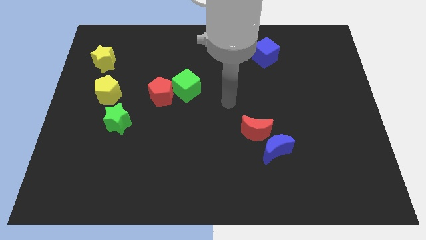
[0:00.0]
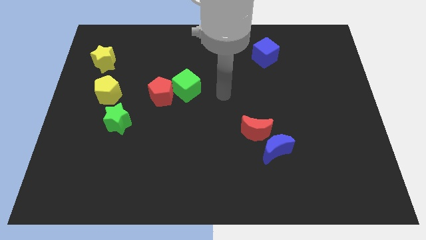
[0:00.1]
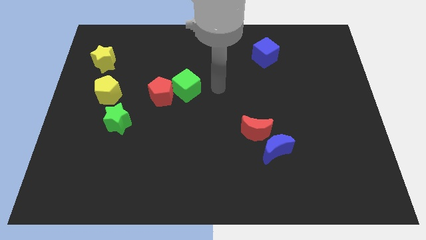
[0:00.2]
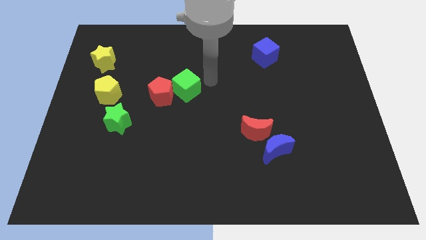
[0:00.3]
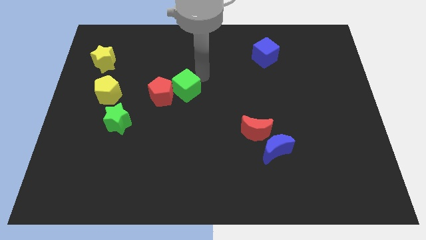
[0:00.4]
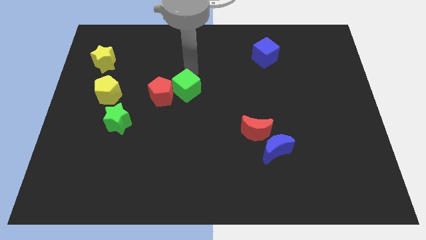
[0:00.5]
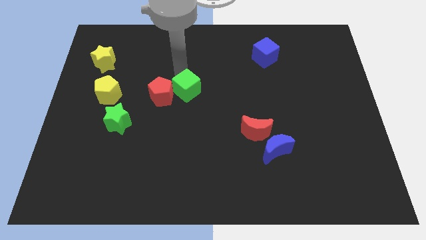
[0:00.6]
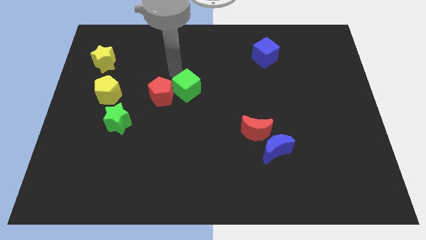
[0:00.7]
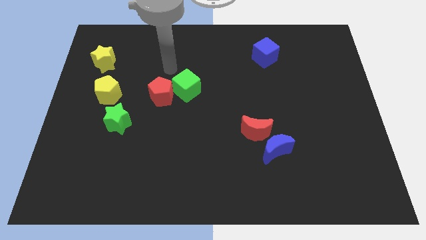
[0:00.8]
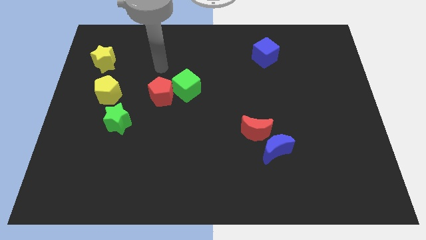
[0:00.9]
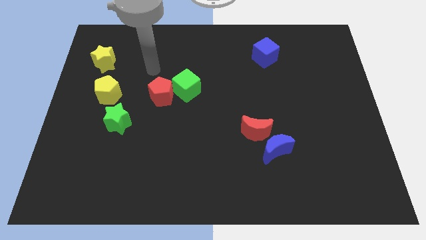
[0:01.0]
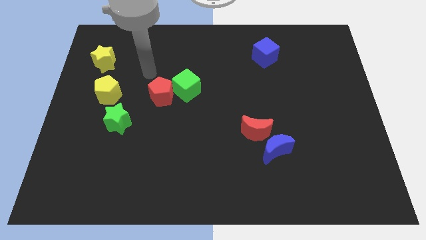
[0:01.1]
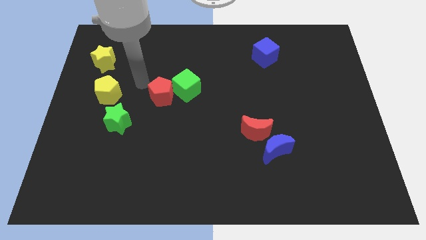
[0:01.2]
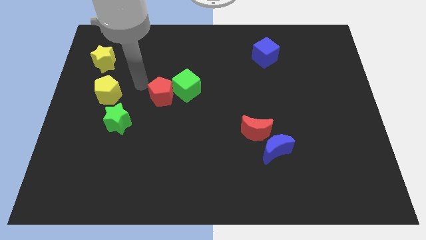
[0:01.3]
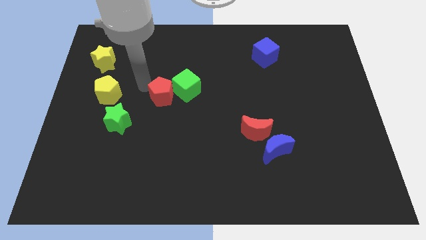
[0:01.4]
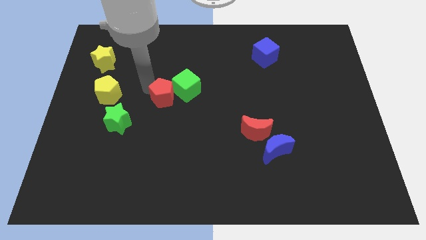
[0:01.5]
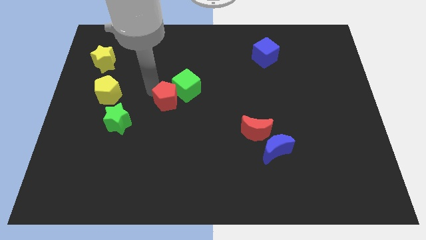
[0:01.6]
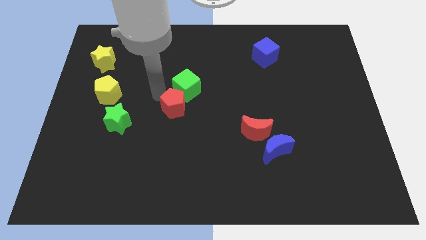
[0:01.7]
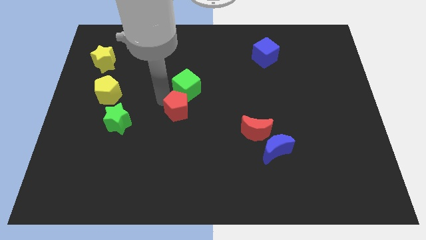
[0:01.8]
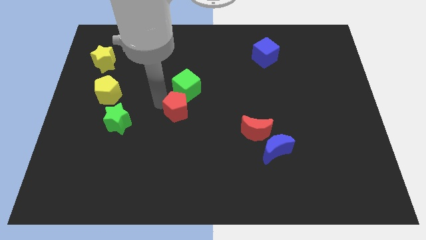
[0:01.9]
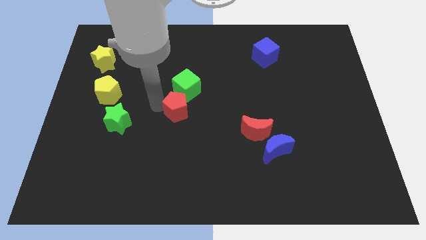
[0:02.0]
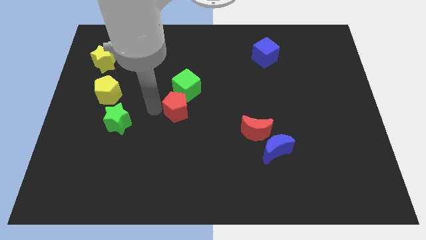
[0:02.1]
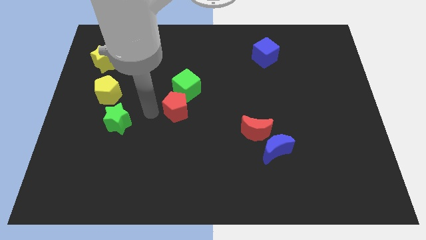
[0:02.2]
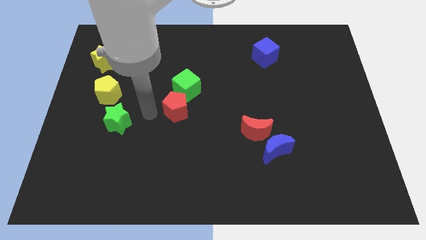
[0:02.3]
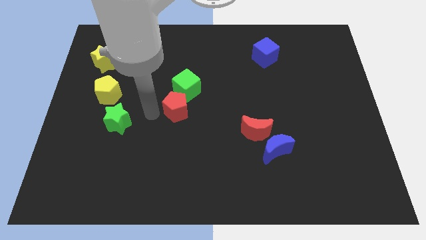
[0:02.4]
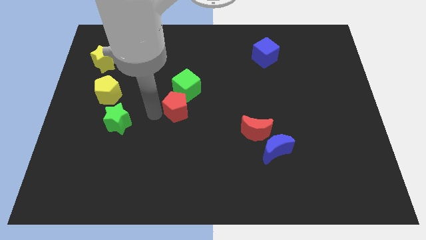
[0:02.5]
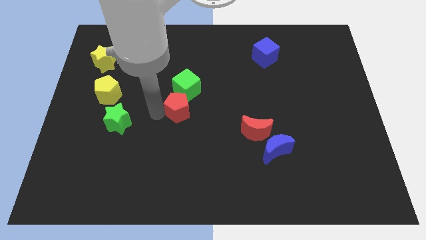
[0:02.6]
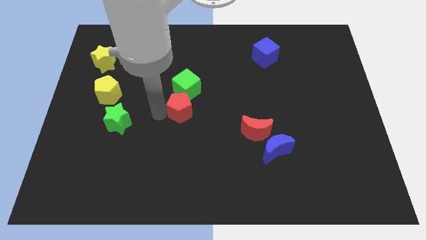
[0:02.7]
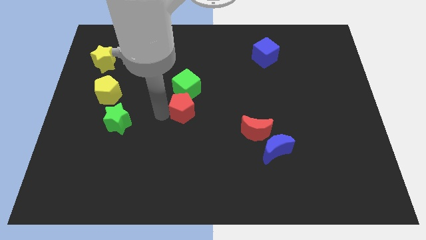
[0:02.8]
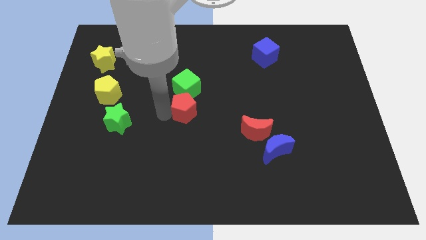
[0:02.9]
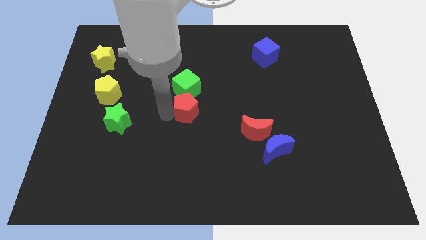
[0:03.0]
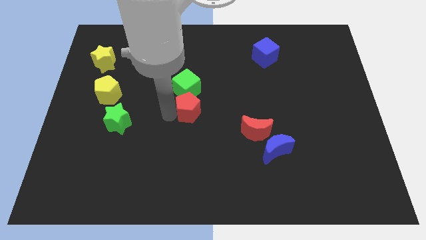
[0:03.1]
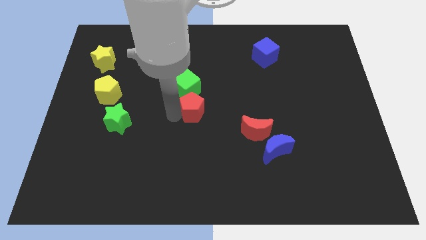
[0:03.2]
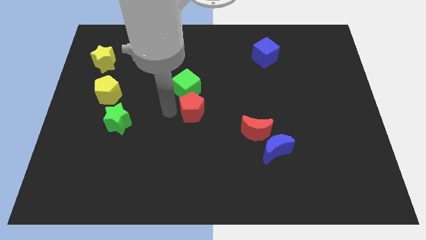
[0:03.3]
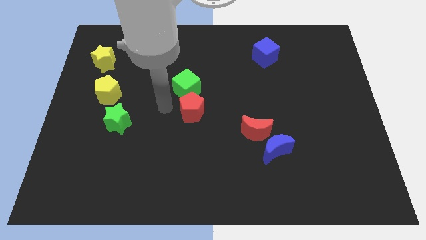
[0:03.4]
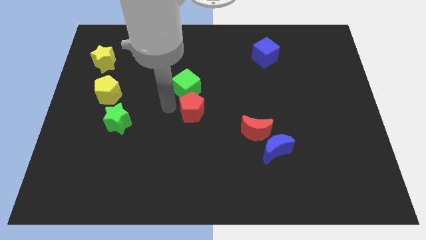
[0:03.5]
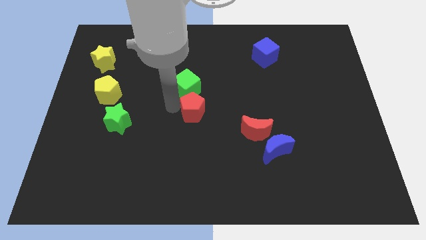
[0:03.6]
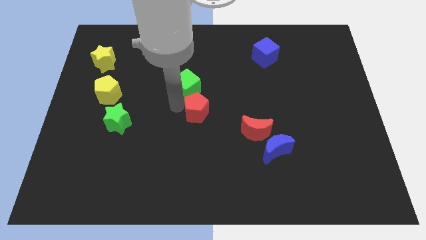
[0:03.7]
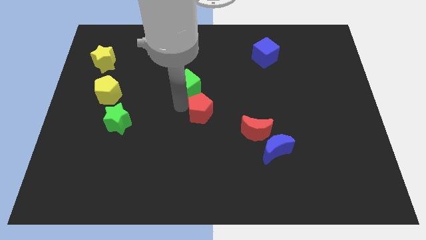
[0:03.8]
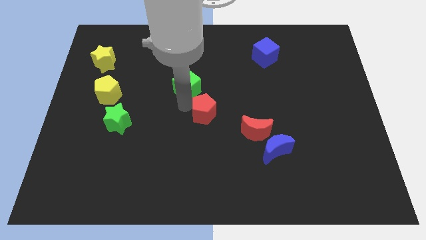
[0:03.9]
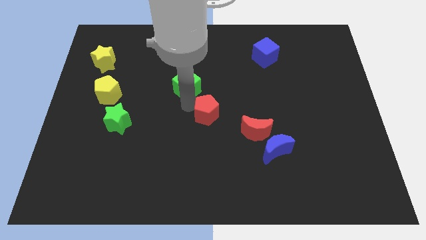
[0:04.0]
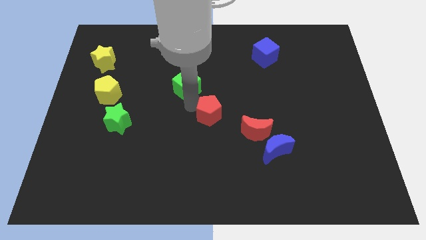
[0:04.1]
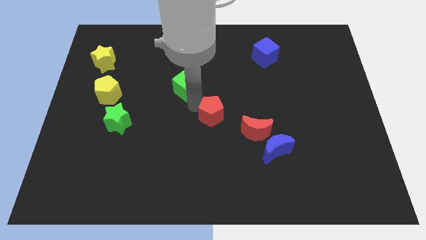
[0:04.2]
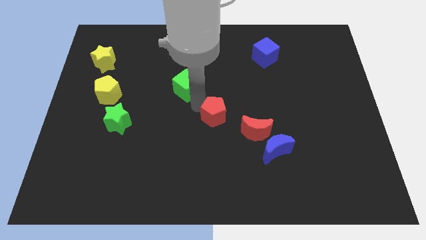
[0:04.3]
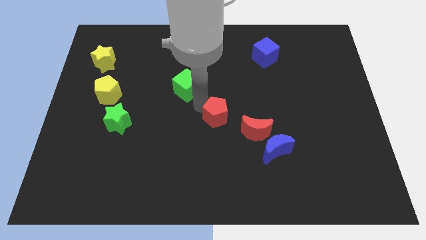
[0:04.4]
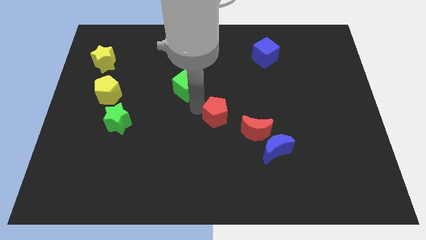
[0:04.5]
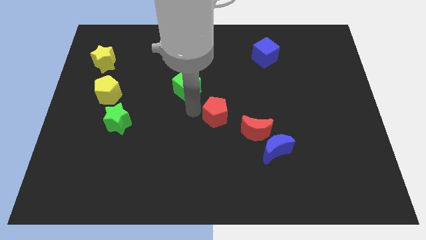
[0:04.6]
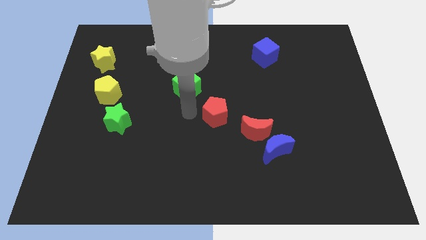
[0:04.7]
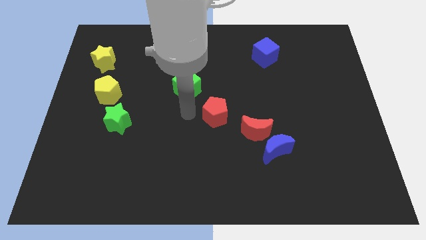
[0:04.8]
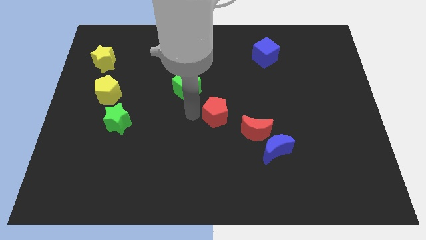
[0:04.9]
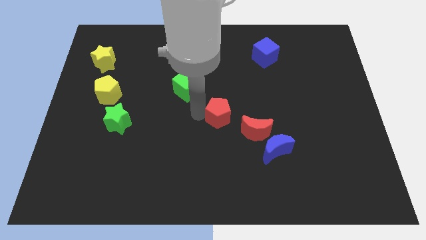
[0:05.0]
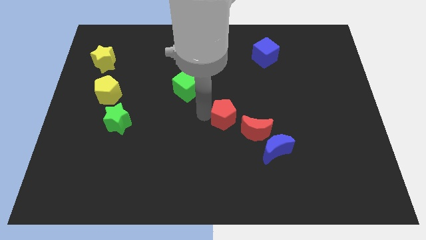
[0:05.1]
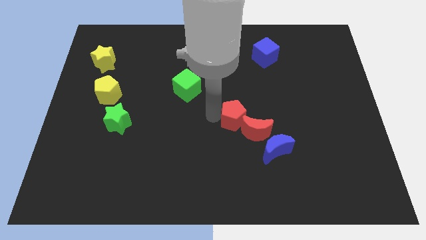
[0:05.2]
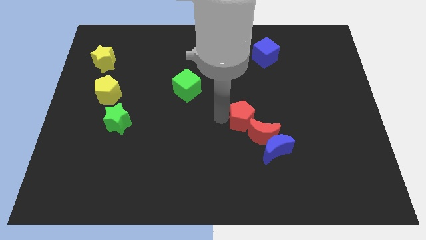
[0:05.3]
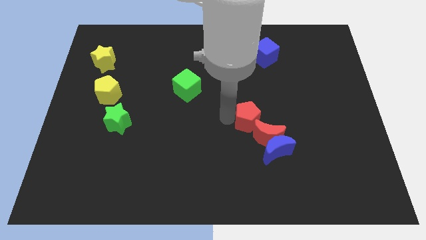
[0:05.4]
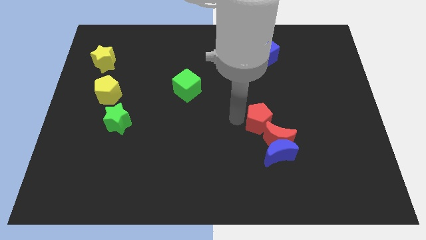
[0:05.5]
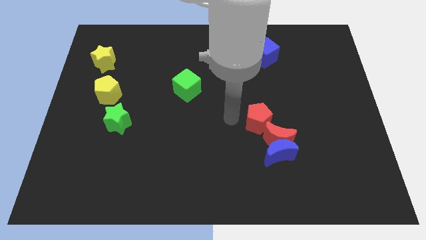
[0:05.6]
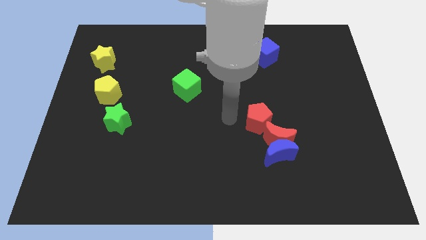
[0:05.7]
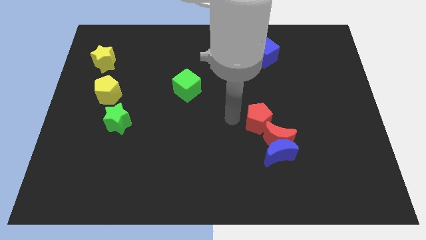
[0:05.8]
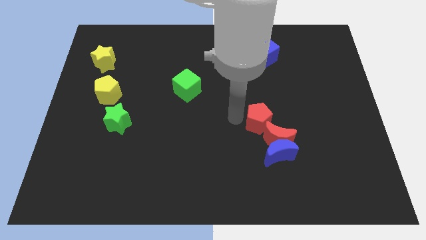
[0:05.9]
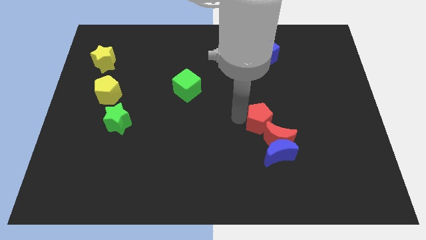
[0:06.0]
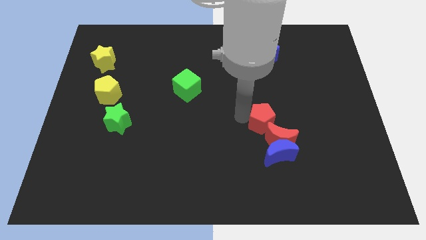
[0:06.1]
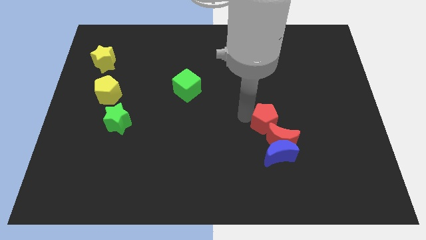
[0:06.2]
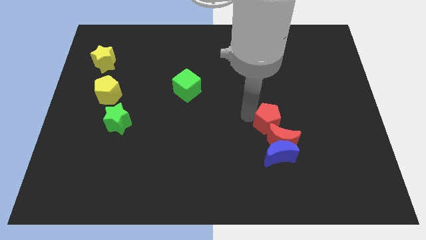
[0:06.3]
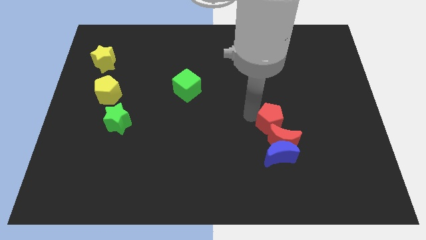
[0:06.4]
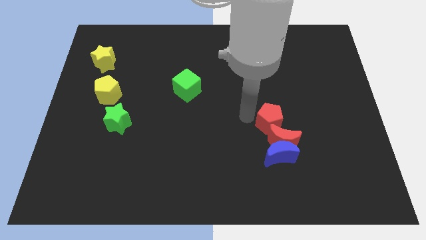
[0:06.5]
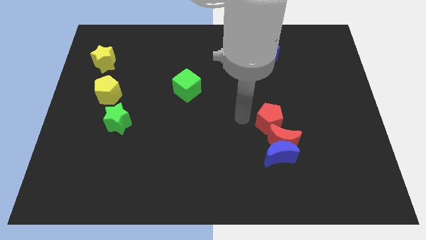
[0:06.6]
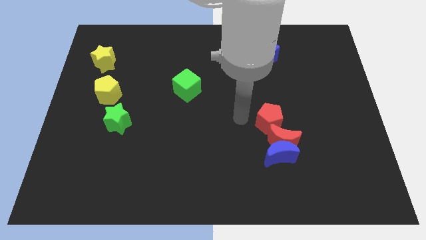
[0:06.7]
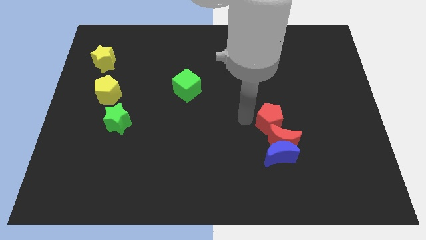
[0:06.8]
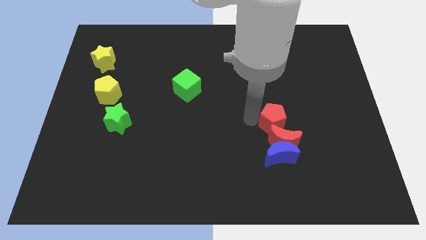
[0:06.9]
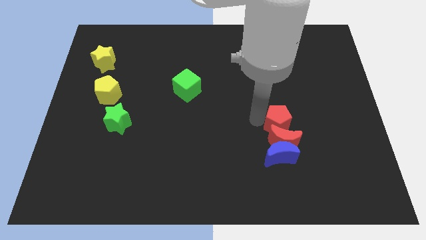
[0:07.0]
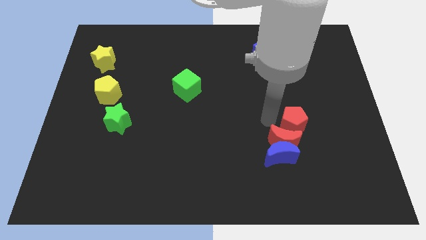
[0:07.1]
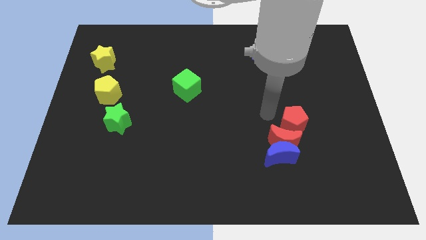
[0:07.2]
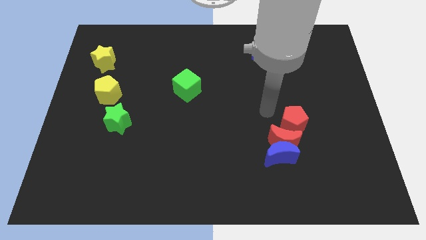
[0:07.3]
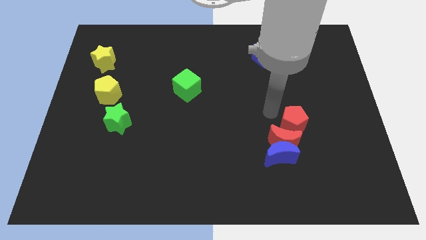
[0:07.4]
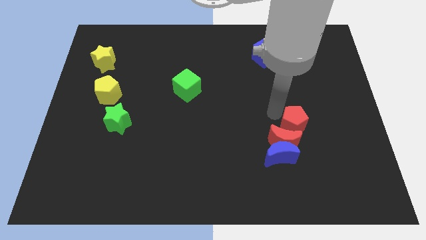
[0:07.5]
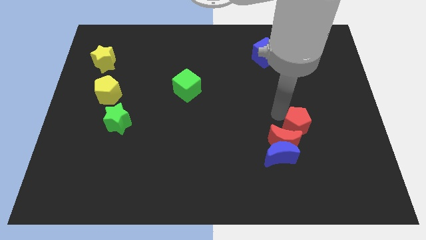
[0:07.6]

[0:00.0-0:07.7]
slide the red pentagon to the right of the red moon
